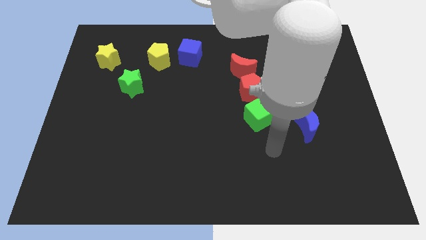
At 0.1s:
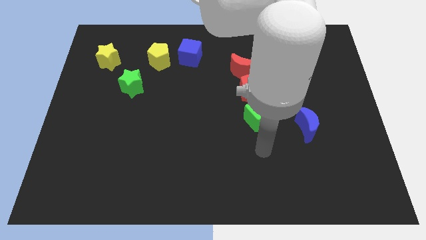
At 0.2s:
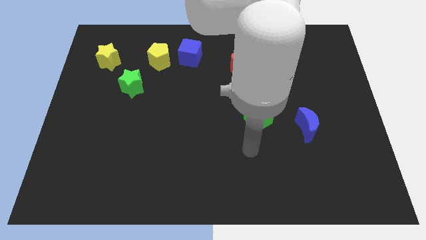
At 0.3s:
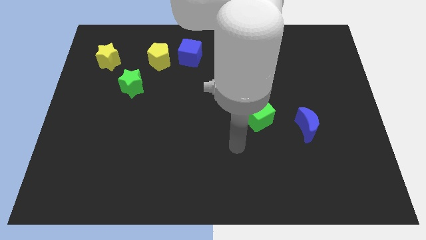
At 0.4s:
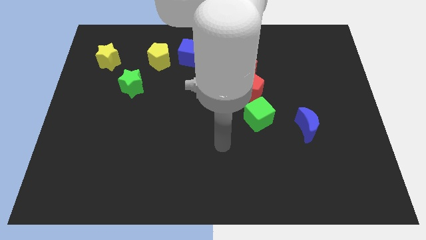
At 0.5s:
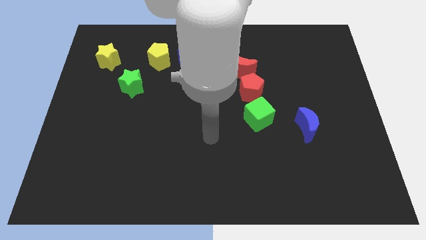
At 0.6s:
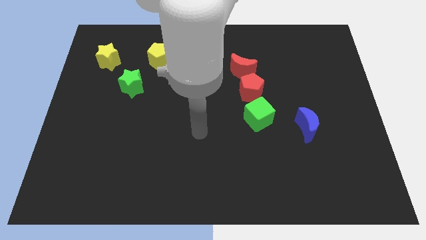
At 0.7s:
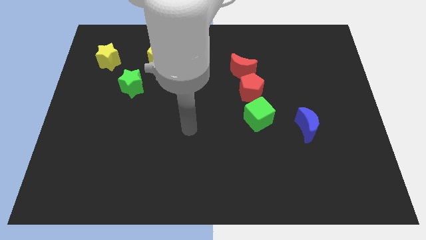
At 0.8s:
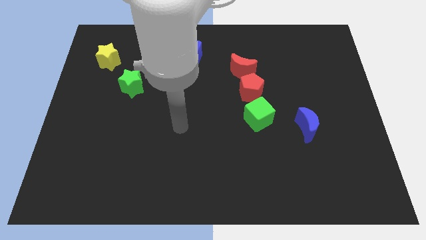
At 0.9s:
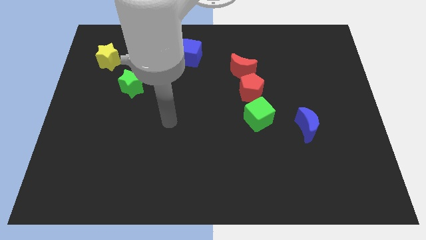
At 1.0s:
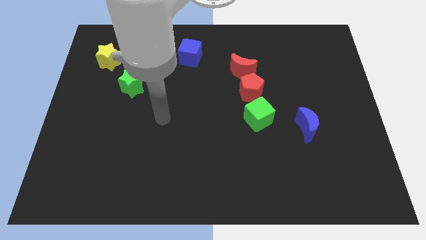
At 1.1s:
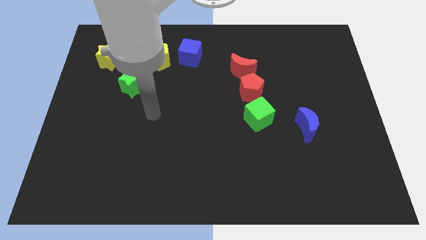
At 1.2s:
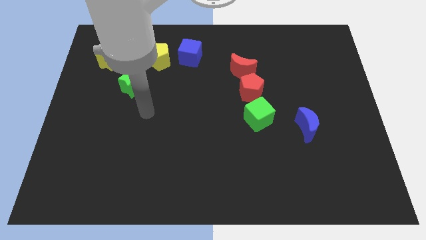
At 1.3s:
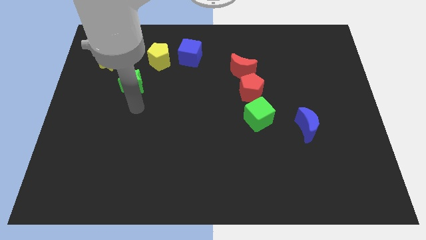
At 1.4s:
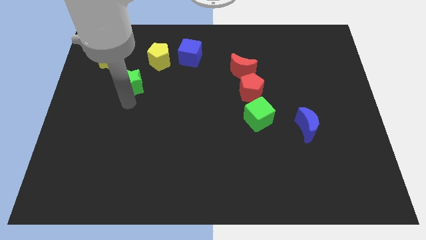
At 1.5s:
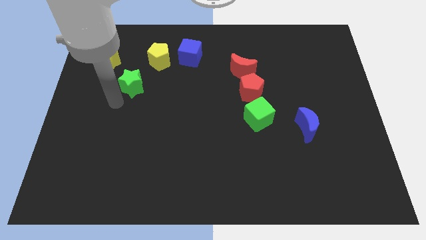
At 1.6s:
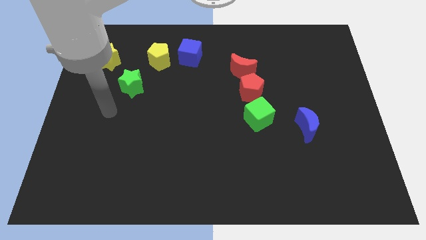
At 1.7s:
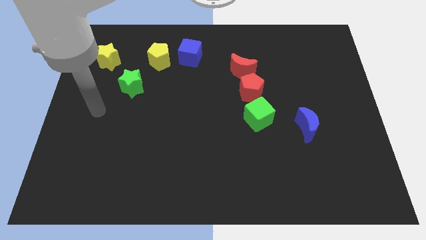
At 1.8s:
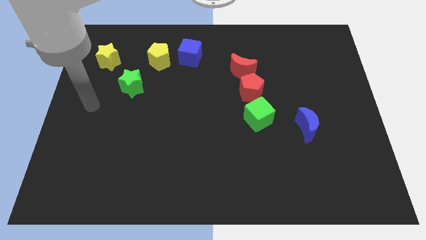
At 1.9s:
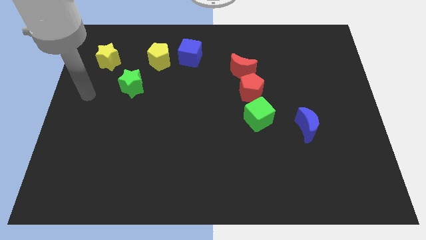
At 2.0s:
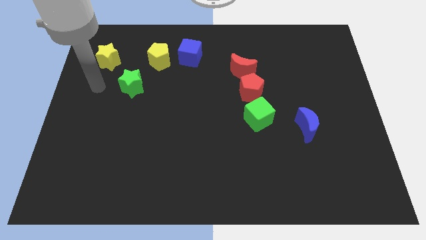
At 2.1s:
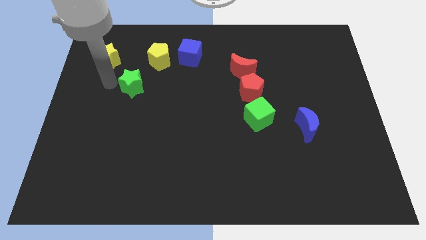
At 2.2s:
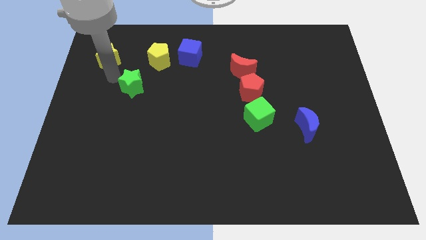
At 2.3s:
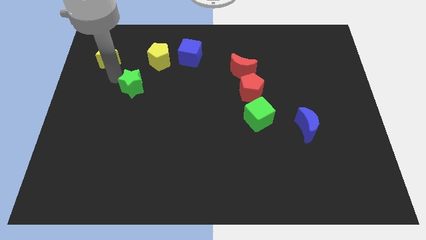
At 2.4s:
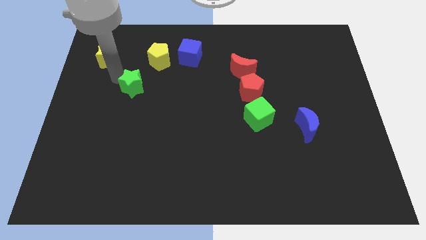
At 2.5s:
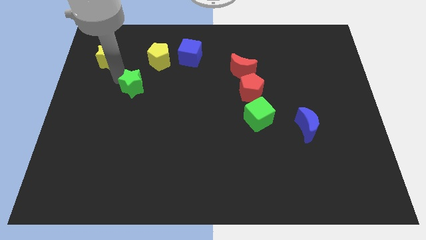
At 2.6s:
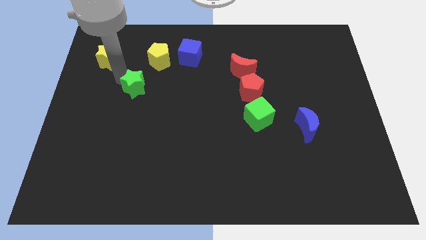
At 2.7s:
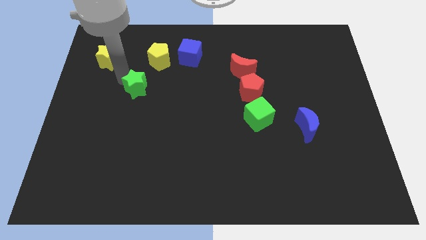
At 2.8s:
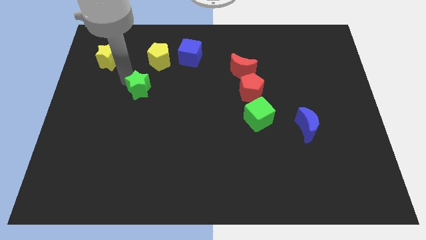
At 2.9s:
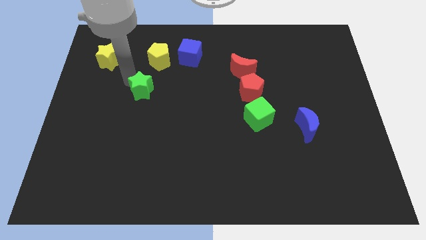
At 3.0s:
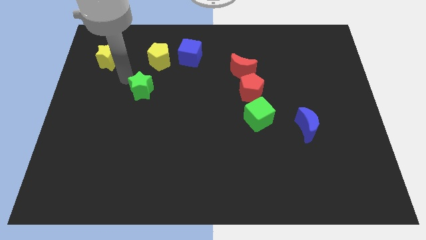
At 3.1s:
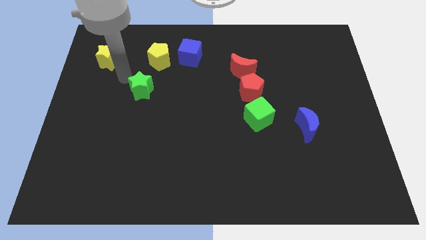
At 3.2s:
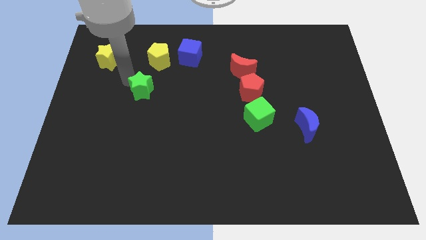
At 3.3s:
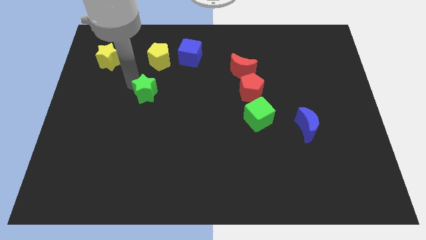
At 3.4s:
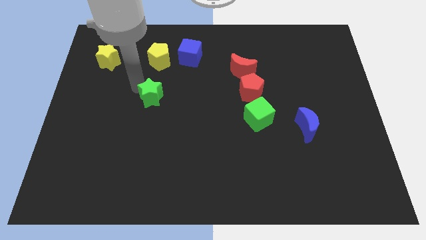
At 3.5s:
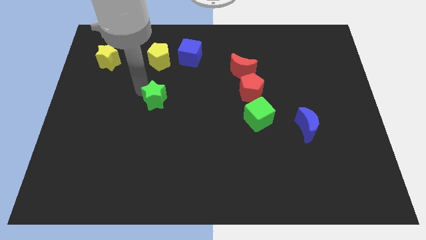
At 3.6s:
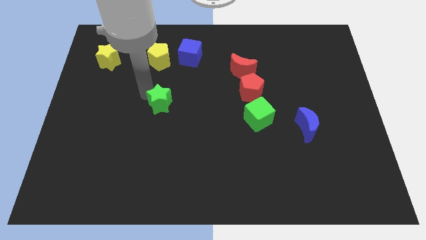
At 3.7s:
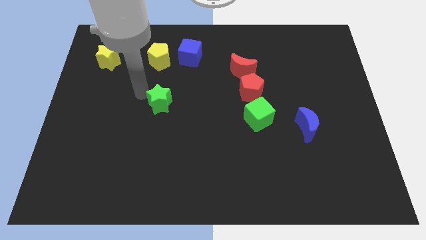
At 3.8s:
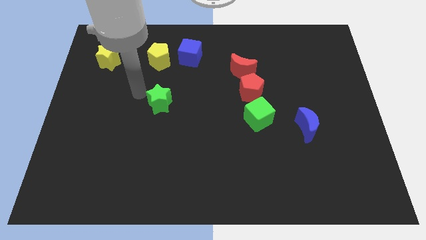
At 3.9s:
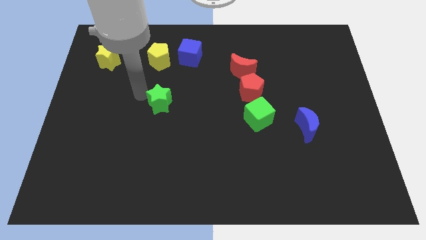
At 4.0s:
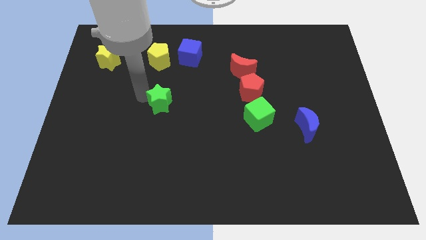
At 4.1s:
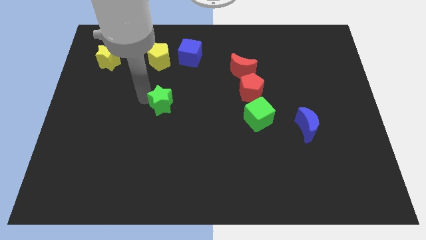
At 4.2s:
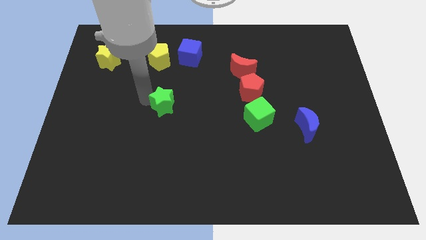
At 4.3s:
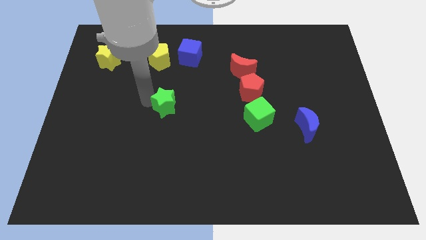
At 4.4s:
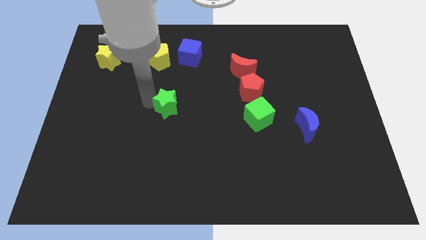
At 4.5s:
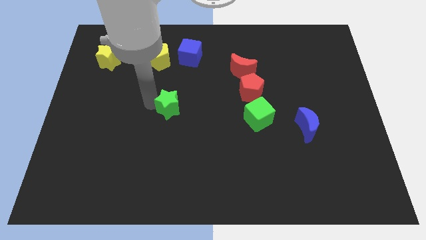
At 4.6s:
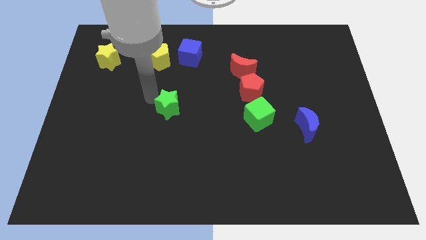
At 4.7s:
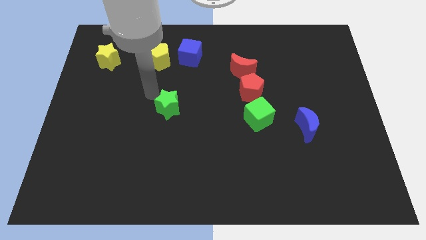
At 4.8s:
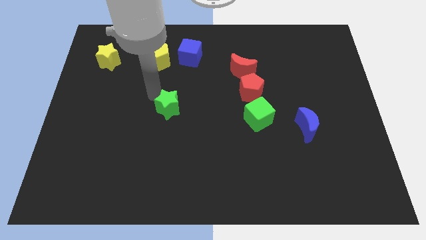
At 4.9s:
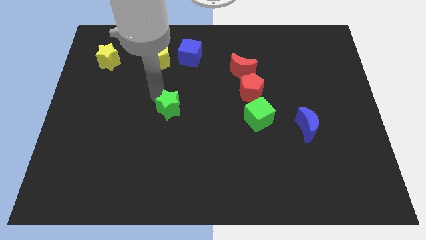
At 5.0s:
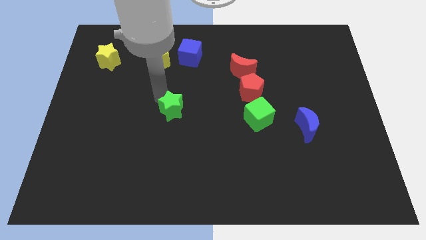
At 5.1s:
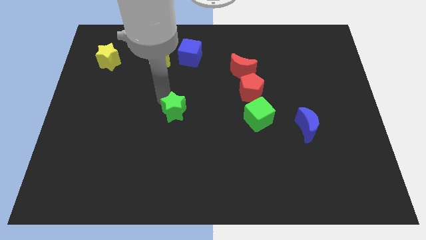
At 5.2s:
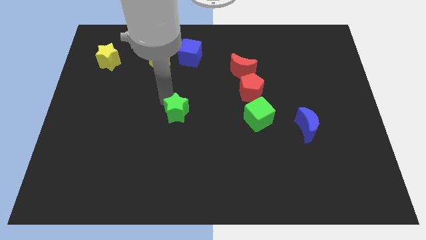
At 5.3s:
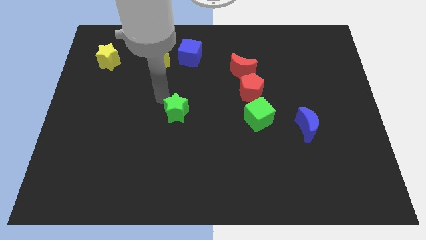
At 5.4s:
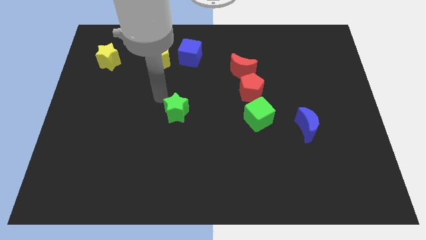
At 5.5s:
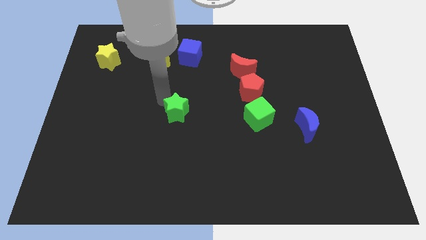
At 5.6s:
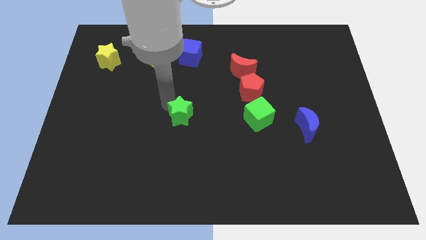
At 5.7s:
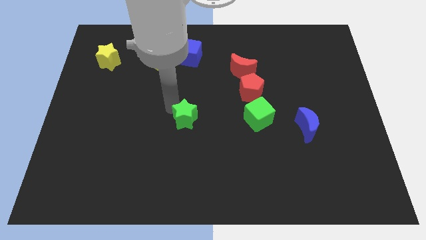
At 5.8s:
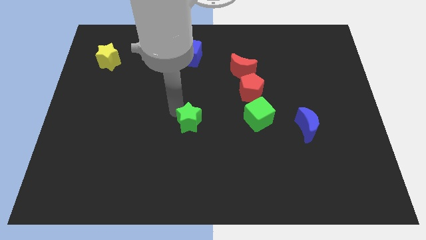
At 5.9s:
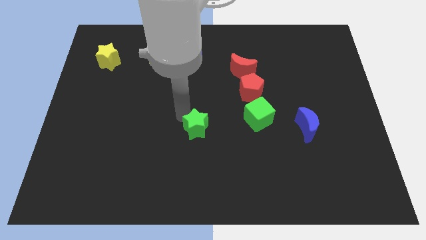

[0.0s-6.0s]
slide the green star downwards and then to the right

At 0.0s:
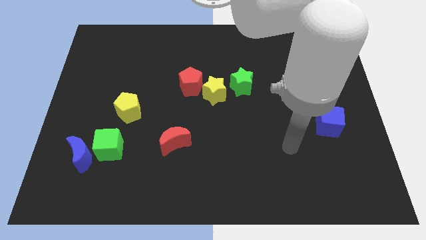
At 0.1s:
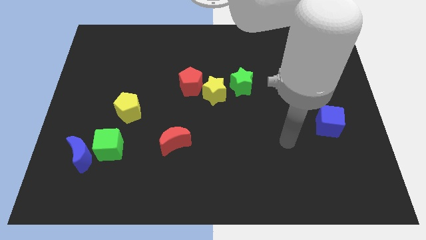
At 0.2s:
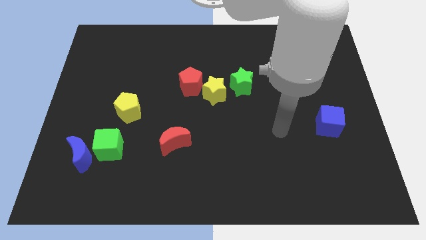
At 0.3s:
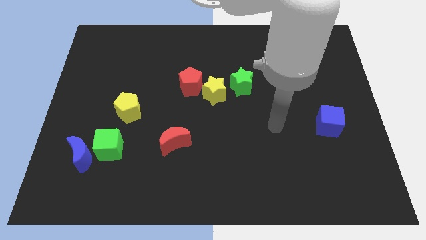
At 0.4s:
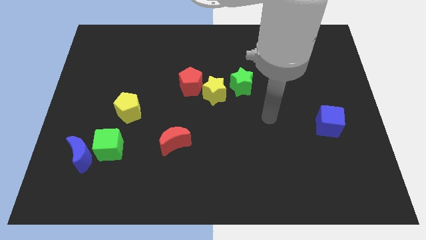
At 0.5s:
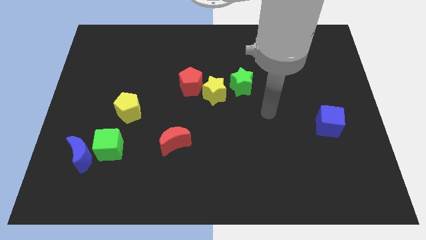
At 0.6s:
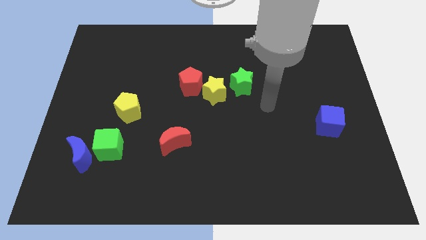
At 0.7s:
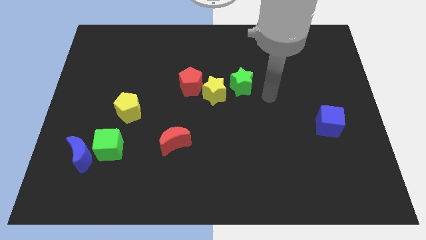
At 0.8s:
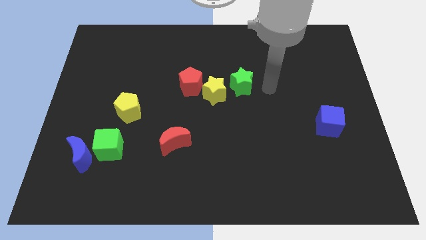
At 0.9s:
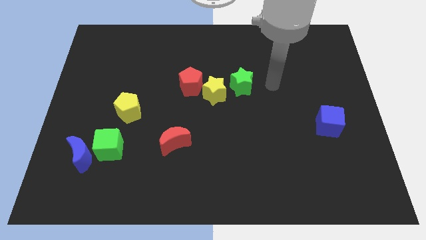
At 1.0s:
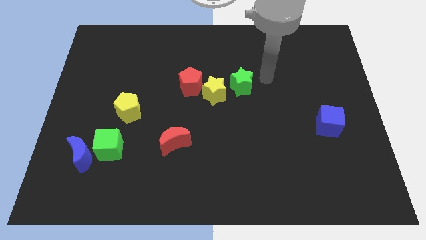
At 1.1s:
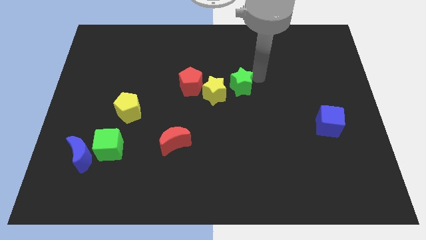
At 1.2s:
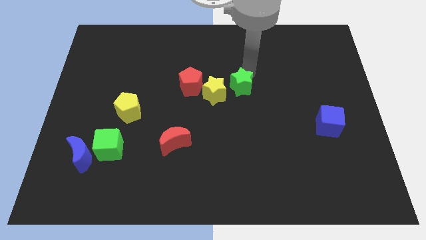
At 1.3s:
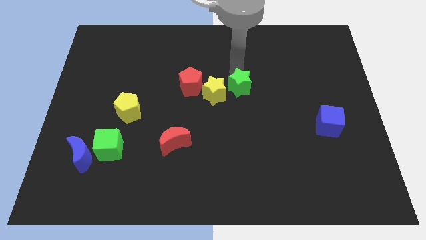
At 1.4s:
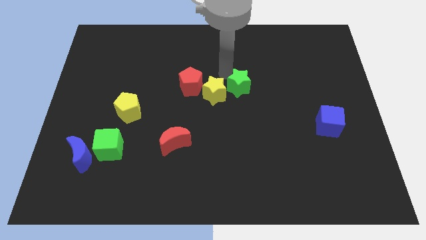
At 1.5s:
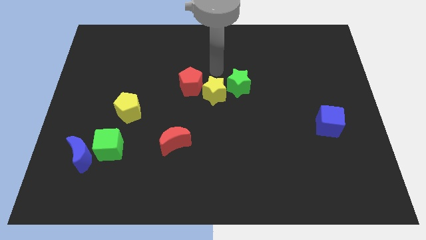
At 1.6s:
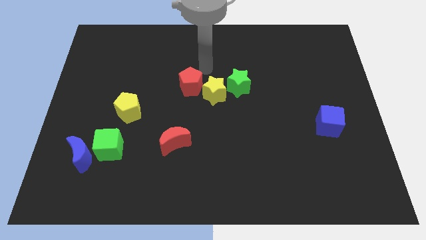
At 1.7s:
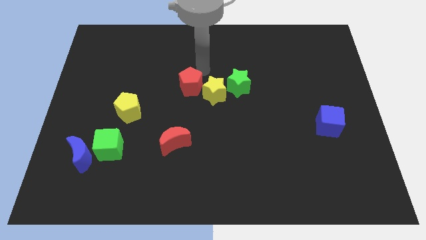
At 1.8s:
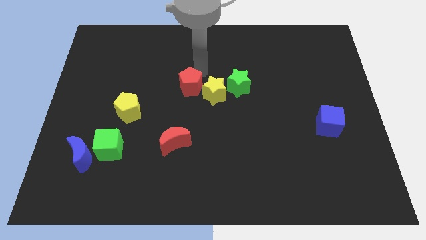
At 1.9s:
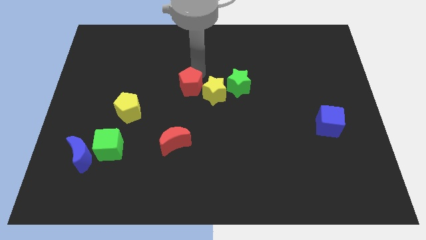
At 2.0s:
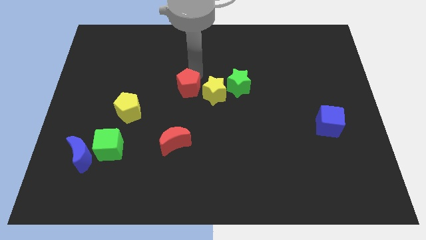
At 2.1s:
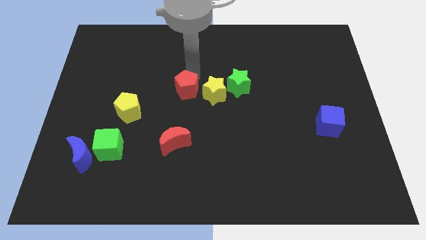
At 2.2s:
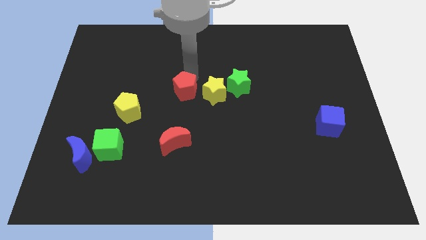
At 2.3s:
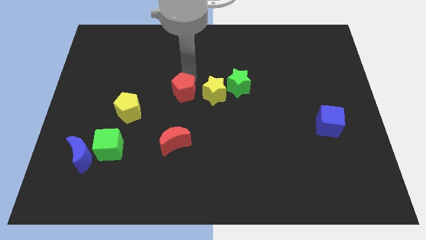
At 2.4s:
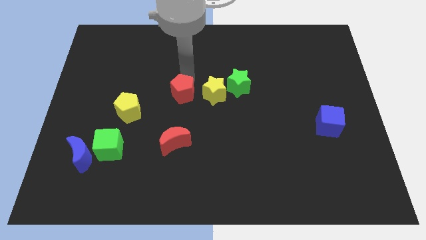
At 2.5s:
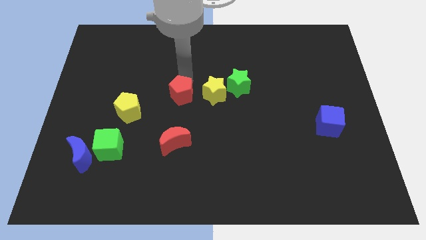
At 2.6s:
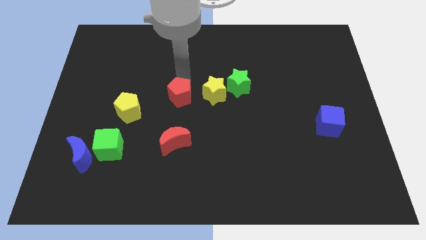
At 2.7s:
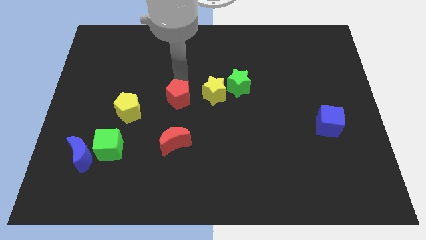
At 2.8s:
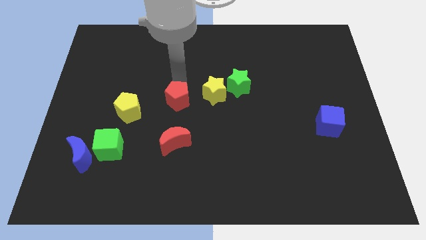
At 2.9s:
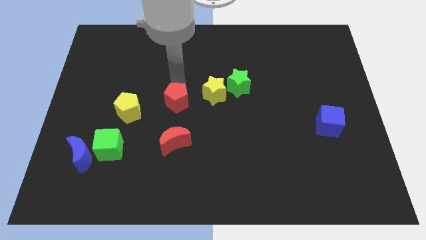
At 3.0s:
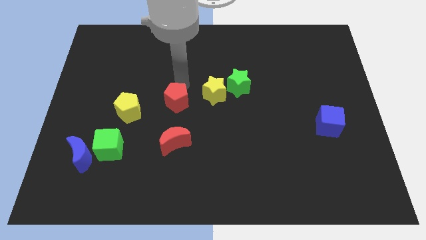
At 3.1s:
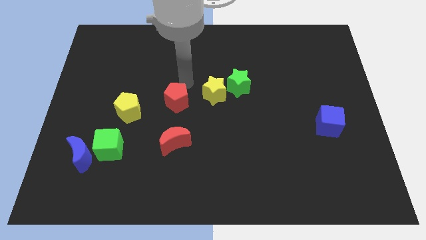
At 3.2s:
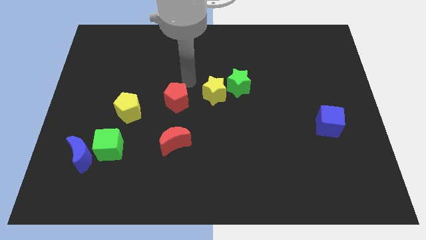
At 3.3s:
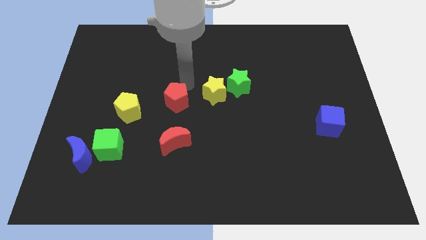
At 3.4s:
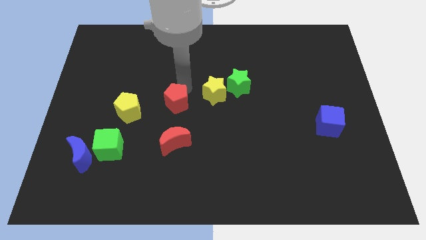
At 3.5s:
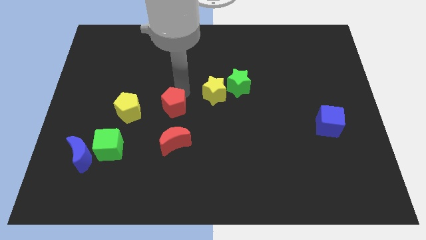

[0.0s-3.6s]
slightly slide the red pentagon diagonally down and to the left
